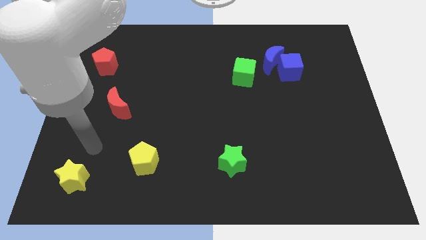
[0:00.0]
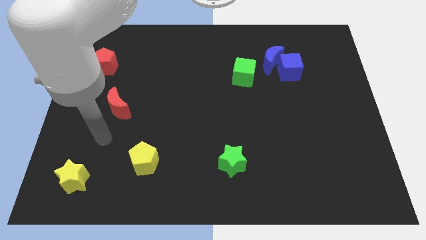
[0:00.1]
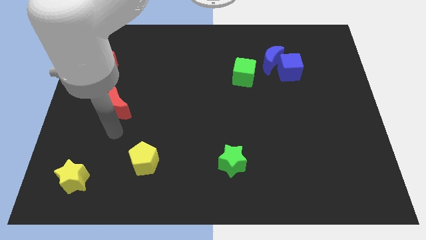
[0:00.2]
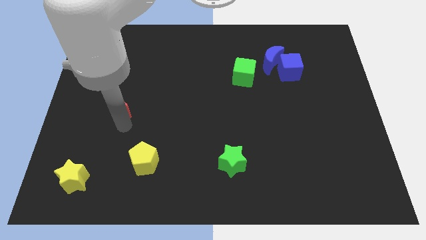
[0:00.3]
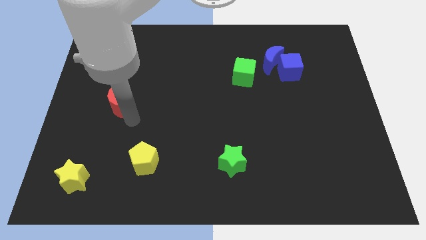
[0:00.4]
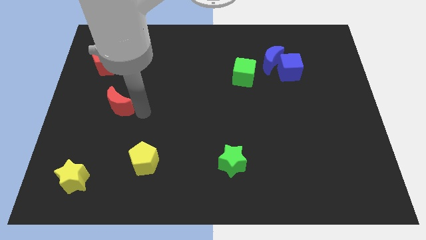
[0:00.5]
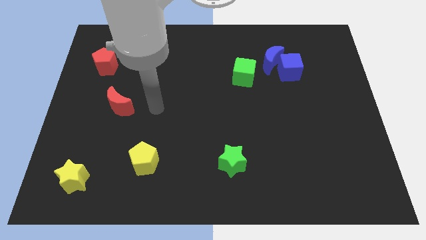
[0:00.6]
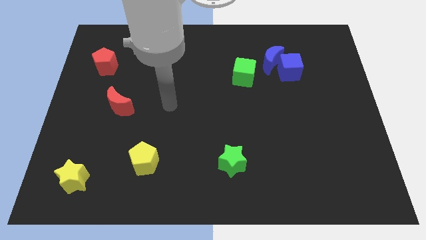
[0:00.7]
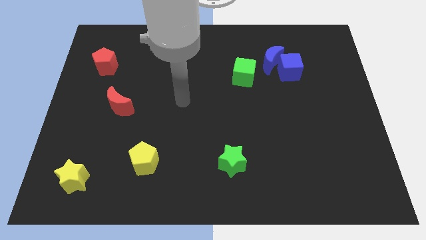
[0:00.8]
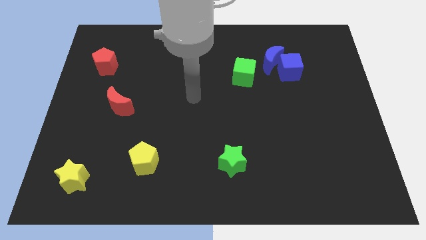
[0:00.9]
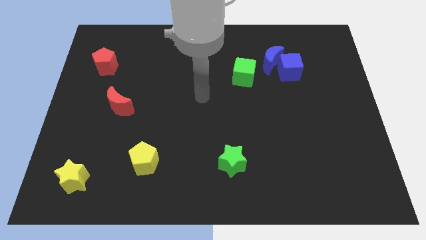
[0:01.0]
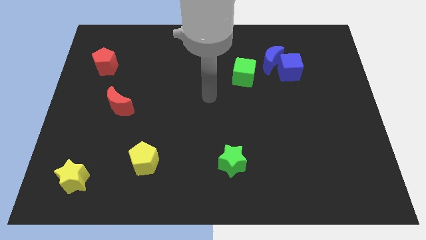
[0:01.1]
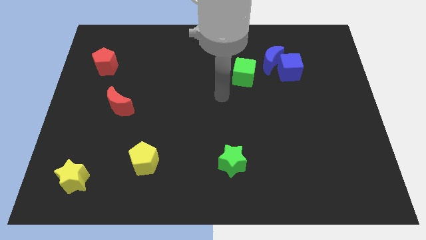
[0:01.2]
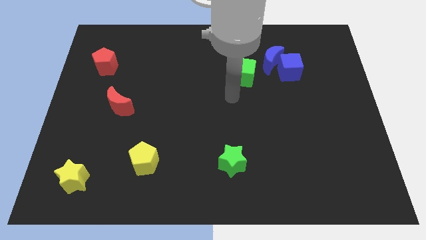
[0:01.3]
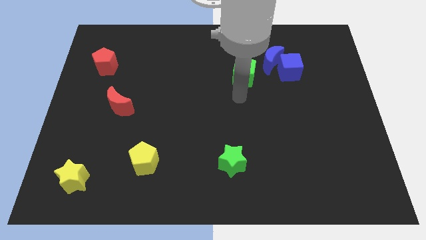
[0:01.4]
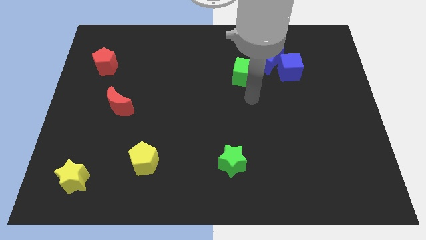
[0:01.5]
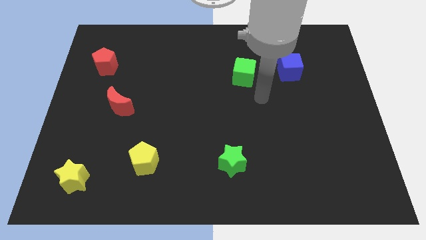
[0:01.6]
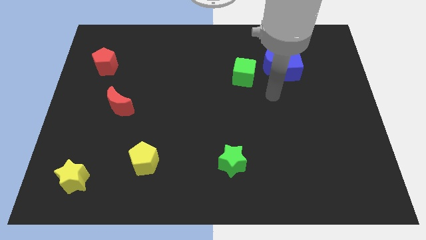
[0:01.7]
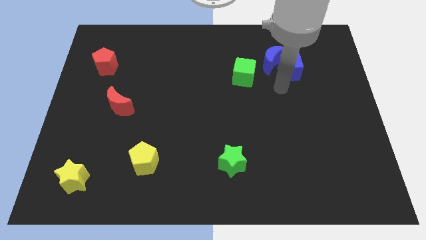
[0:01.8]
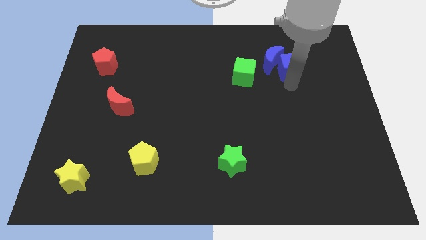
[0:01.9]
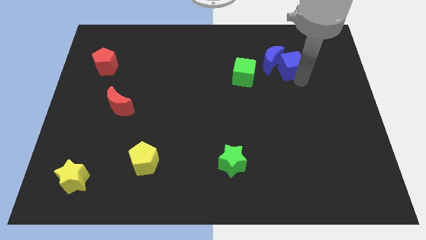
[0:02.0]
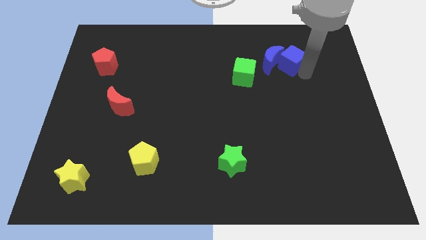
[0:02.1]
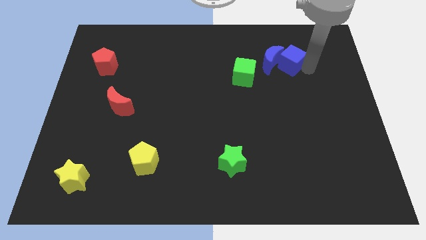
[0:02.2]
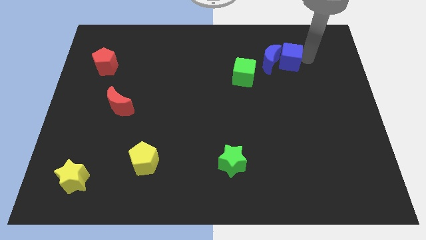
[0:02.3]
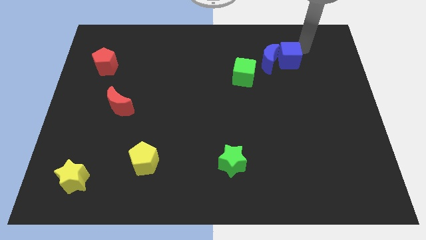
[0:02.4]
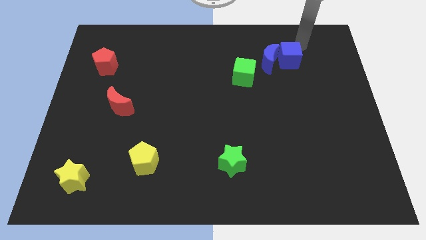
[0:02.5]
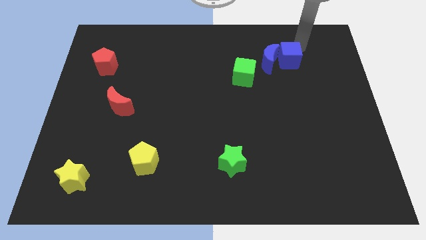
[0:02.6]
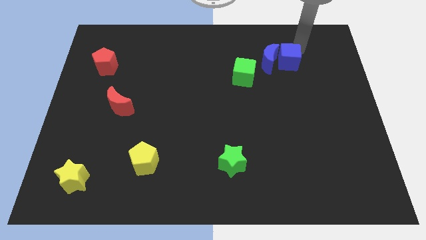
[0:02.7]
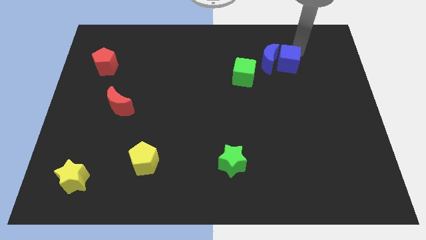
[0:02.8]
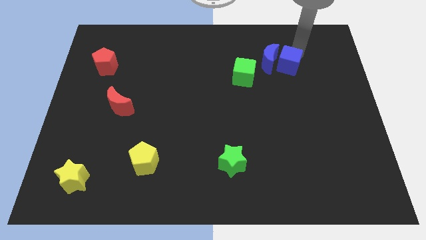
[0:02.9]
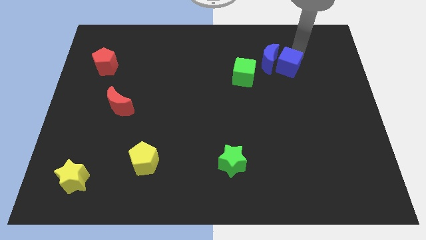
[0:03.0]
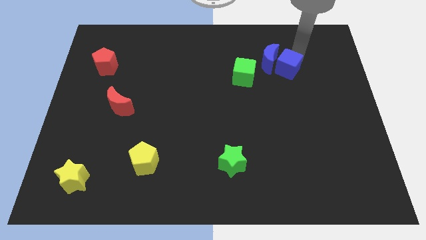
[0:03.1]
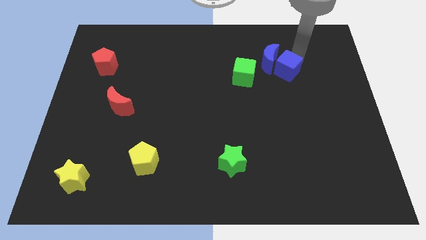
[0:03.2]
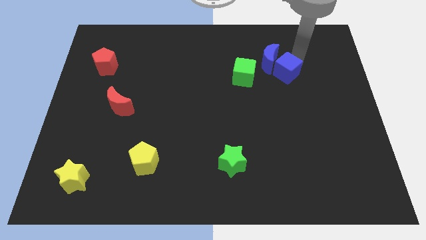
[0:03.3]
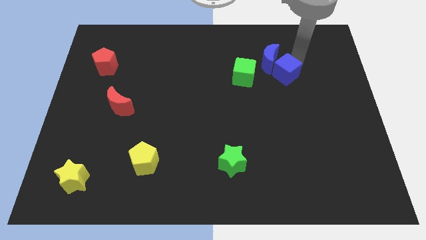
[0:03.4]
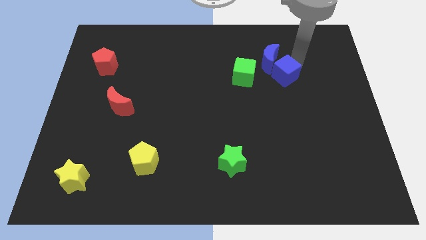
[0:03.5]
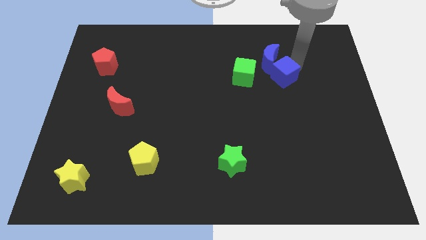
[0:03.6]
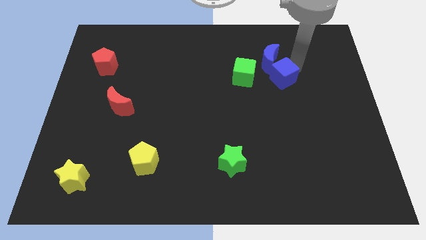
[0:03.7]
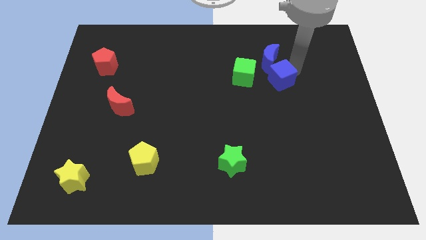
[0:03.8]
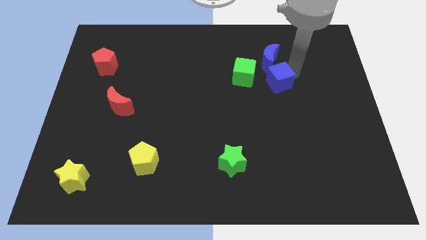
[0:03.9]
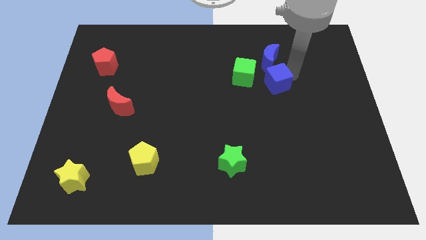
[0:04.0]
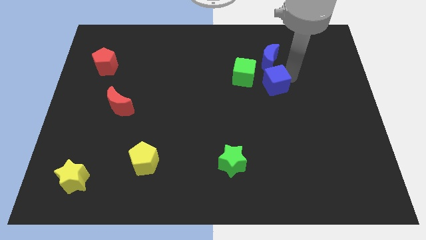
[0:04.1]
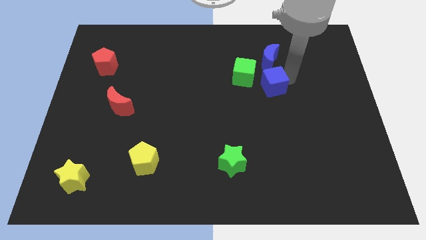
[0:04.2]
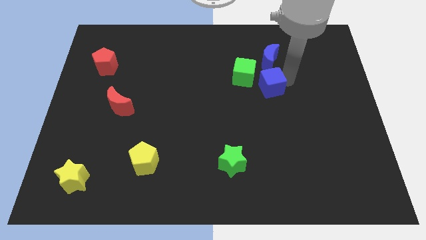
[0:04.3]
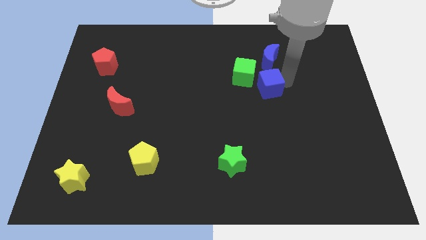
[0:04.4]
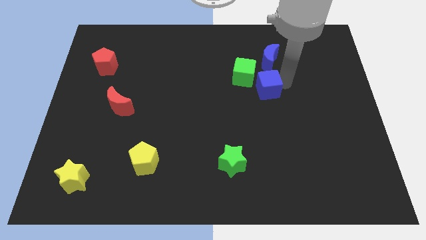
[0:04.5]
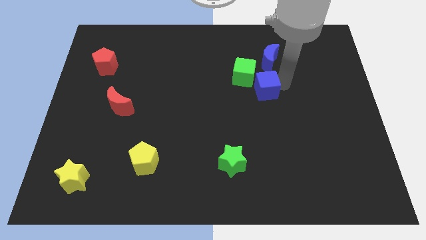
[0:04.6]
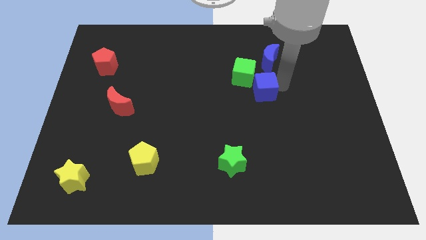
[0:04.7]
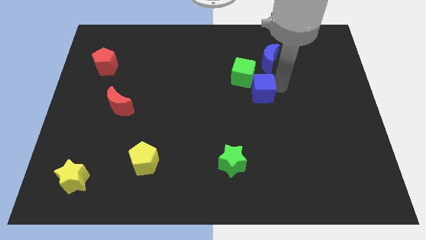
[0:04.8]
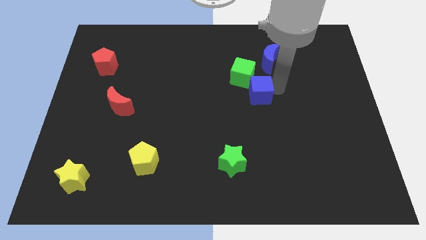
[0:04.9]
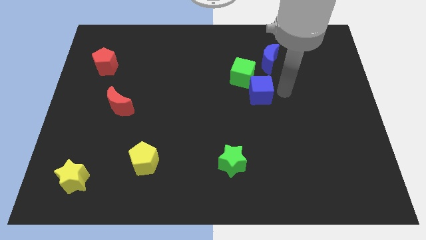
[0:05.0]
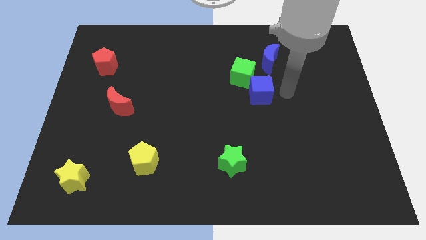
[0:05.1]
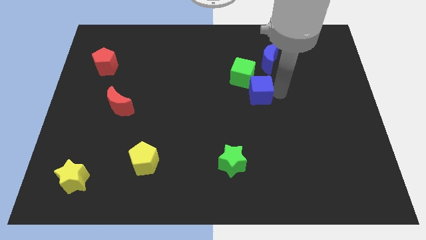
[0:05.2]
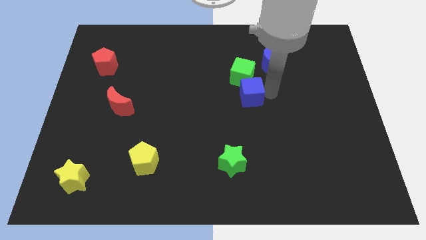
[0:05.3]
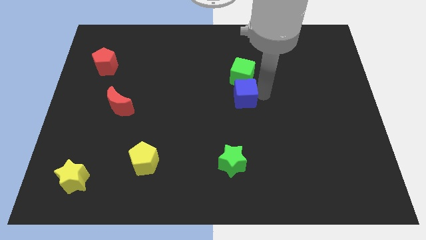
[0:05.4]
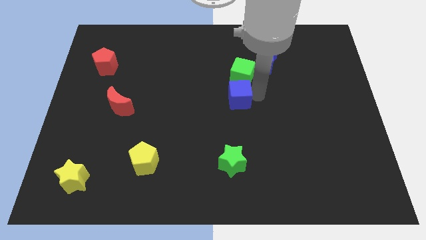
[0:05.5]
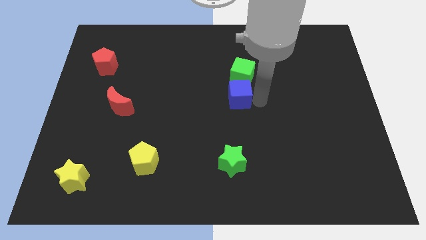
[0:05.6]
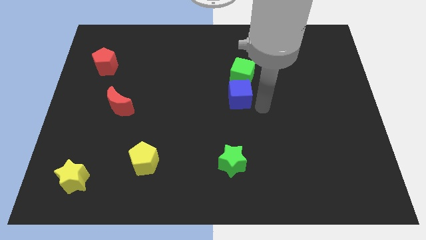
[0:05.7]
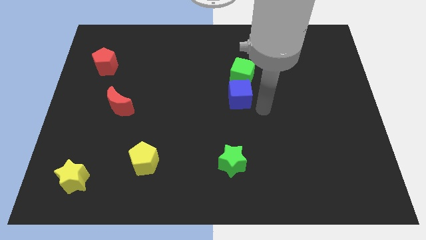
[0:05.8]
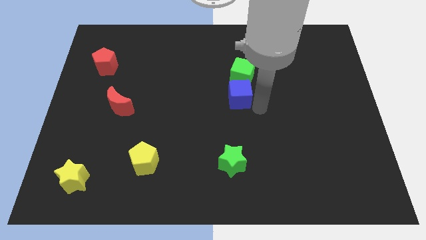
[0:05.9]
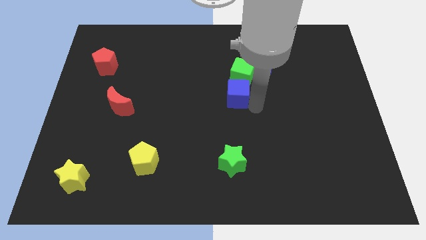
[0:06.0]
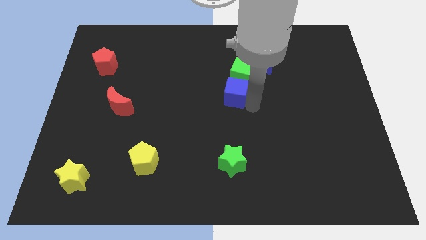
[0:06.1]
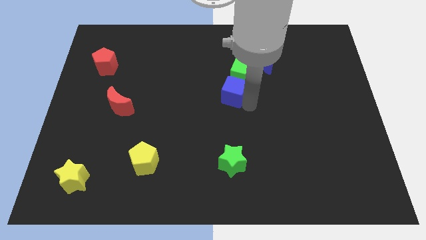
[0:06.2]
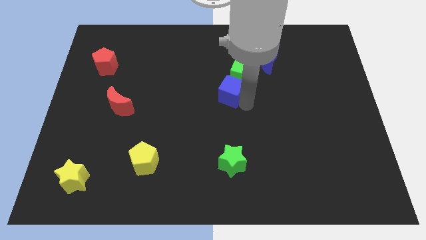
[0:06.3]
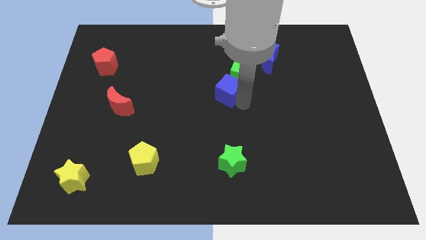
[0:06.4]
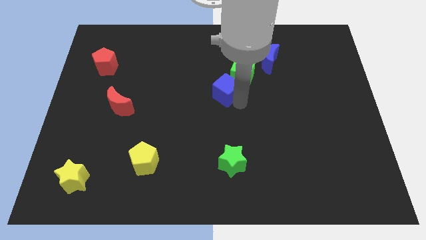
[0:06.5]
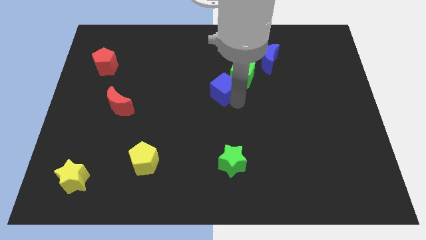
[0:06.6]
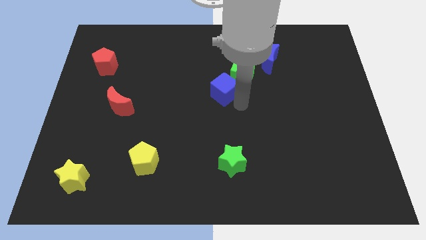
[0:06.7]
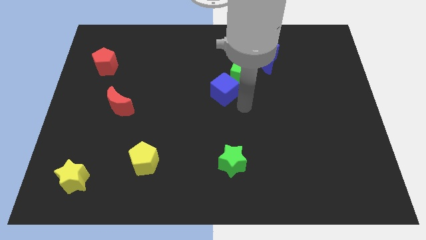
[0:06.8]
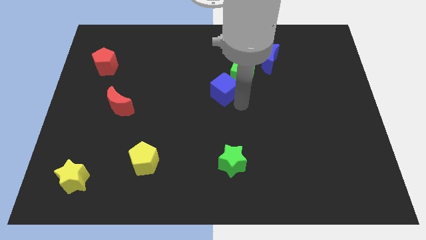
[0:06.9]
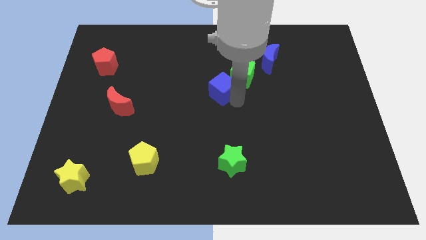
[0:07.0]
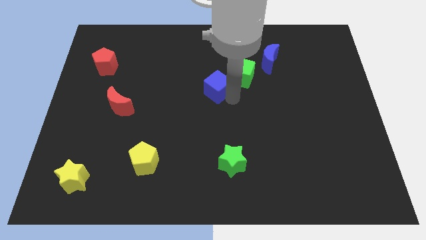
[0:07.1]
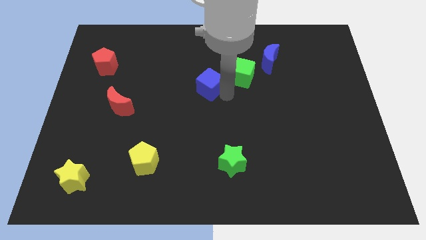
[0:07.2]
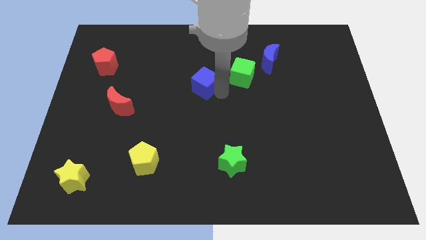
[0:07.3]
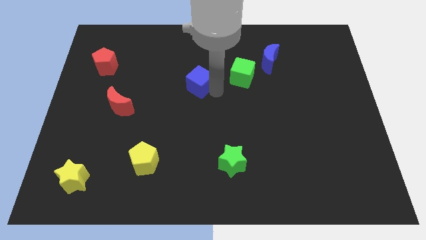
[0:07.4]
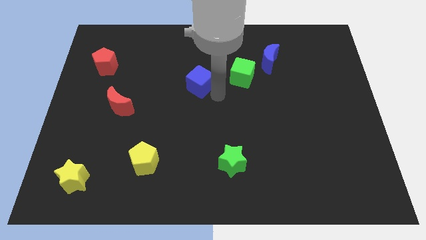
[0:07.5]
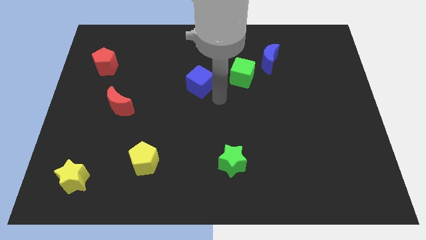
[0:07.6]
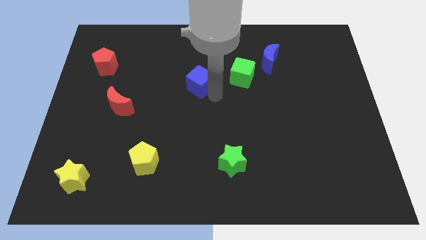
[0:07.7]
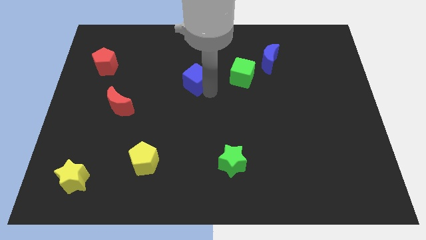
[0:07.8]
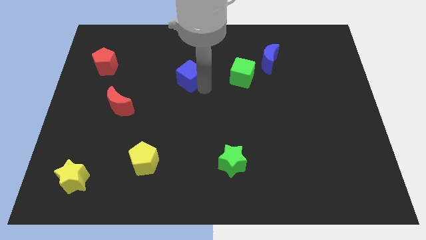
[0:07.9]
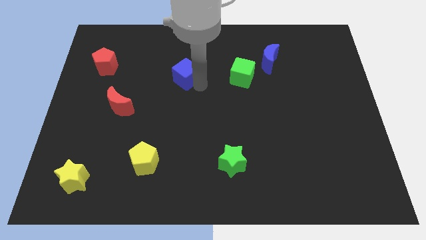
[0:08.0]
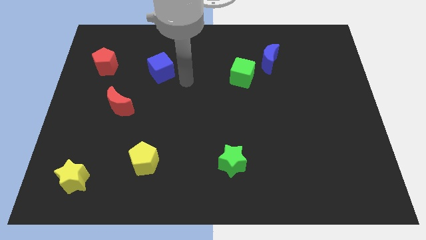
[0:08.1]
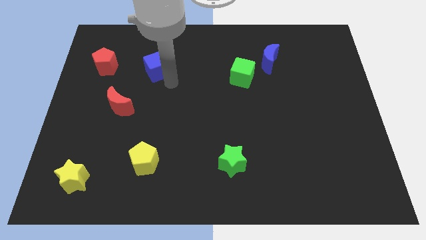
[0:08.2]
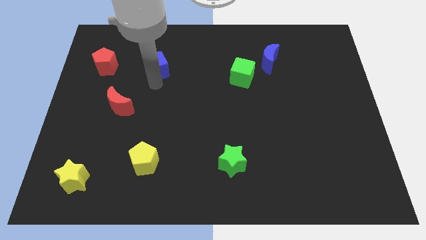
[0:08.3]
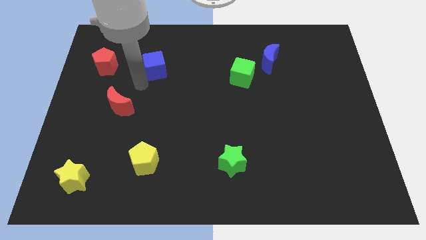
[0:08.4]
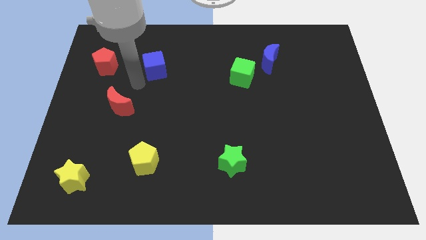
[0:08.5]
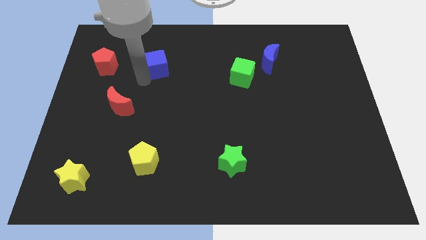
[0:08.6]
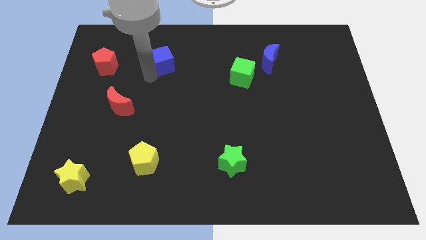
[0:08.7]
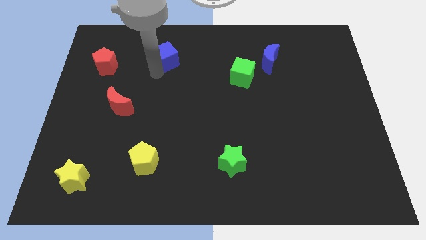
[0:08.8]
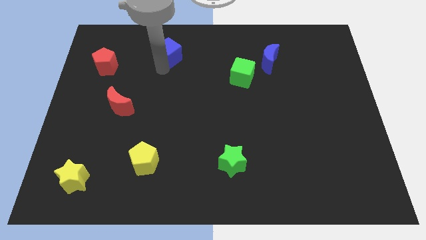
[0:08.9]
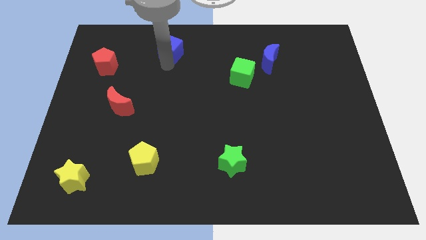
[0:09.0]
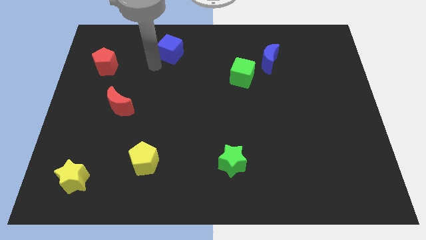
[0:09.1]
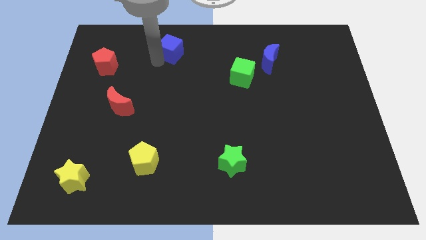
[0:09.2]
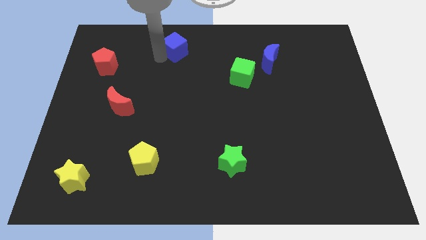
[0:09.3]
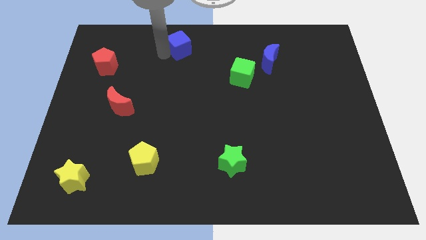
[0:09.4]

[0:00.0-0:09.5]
slide the blue cube to the towards your base
